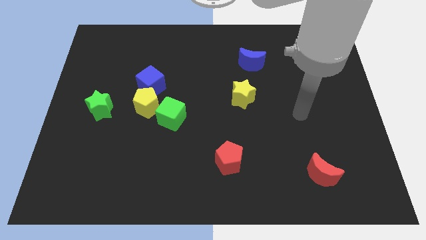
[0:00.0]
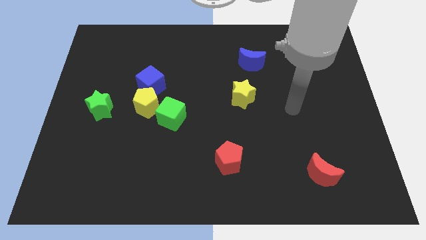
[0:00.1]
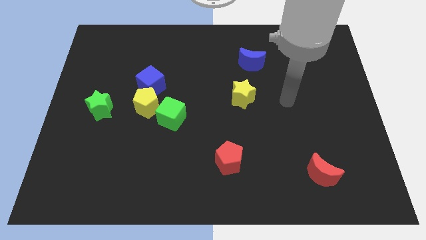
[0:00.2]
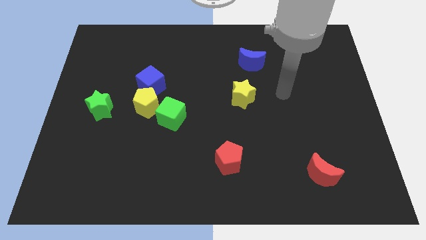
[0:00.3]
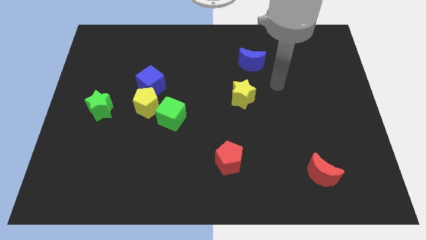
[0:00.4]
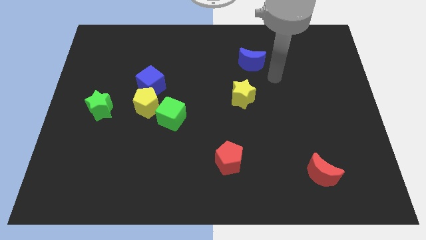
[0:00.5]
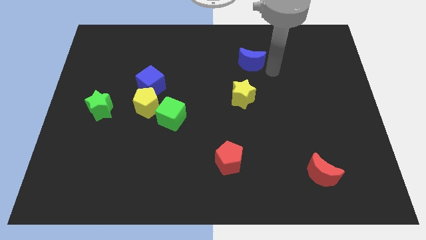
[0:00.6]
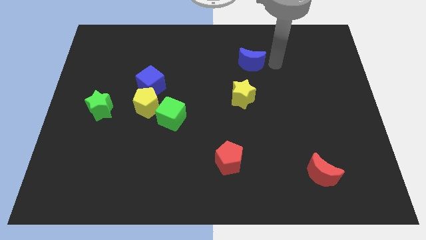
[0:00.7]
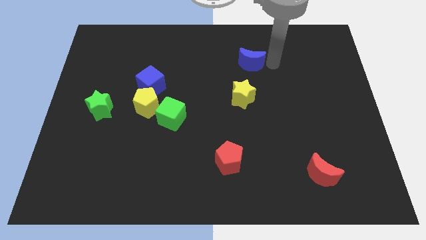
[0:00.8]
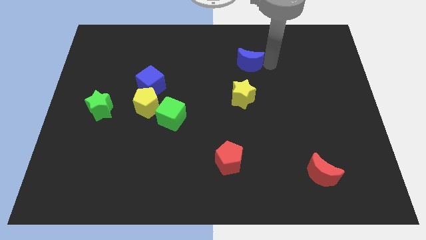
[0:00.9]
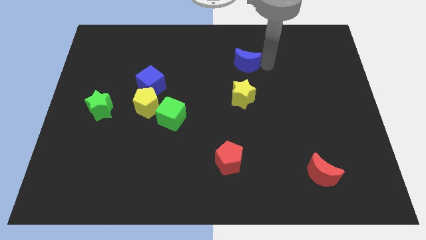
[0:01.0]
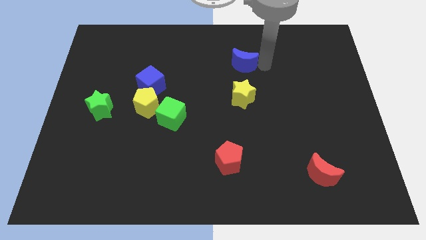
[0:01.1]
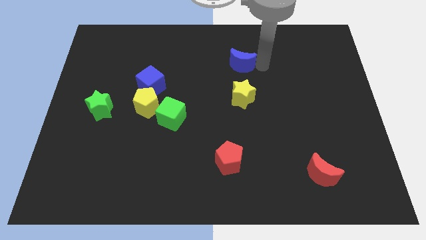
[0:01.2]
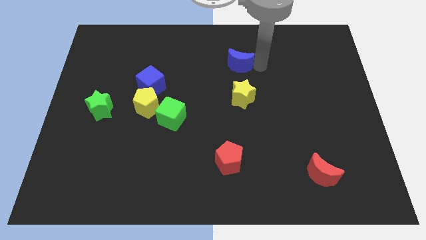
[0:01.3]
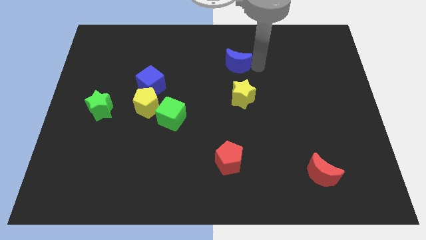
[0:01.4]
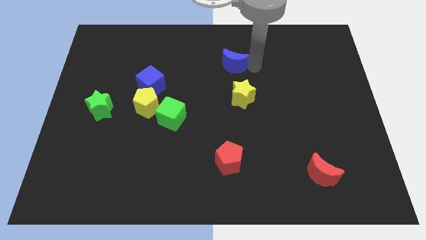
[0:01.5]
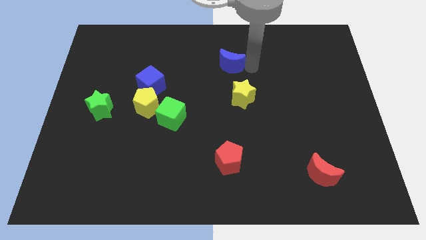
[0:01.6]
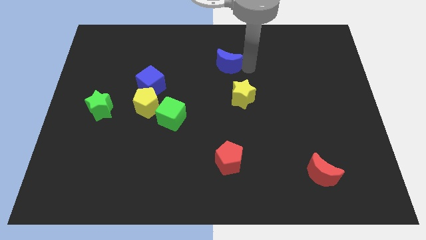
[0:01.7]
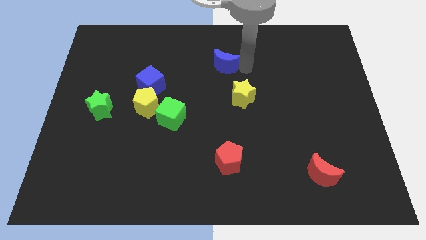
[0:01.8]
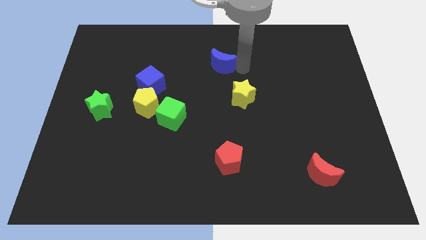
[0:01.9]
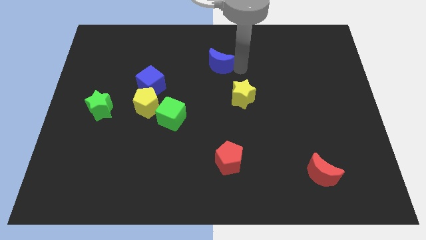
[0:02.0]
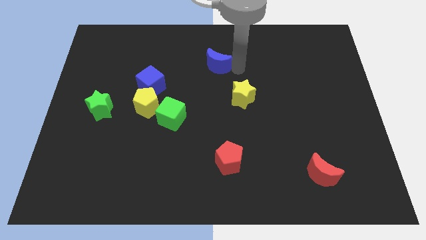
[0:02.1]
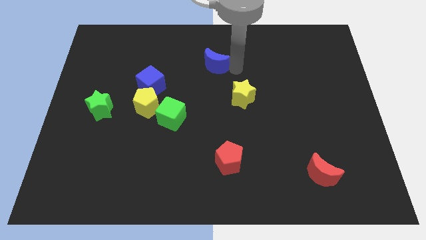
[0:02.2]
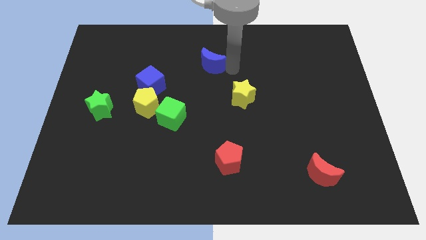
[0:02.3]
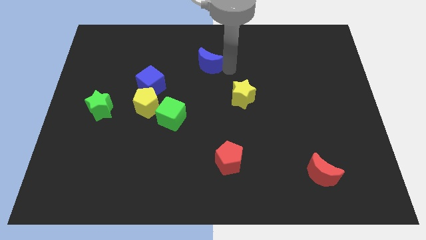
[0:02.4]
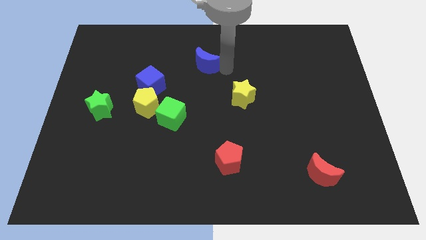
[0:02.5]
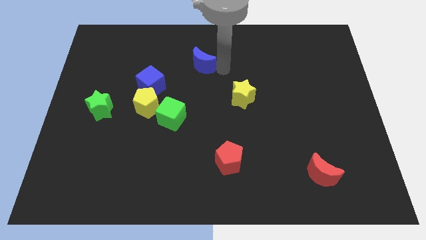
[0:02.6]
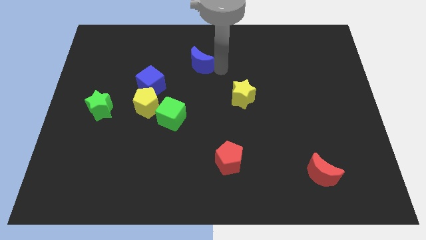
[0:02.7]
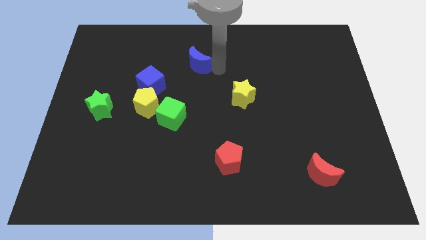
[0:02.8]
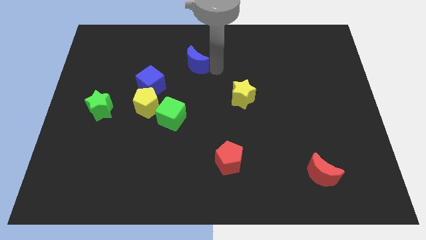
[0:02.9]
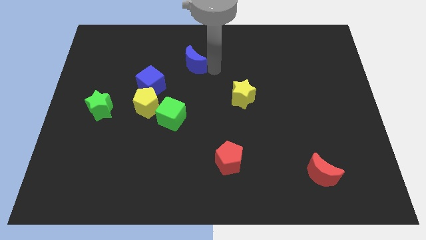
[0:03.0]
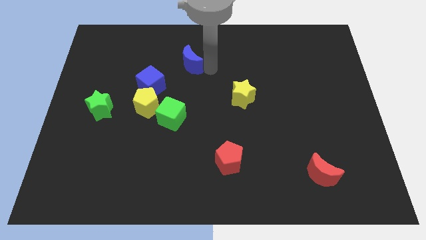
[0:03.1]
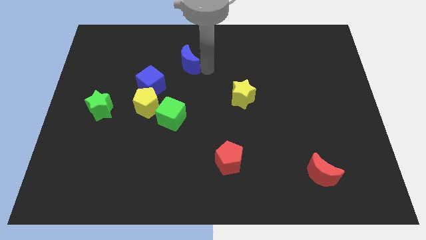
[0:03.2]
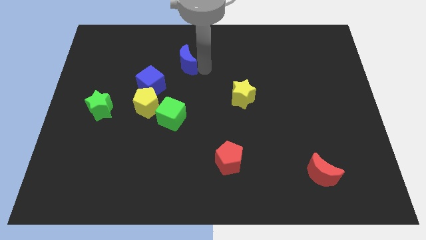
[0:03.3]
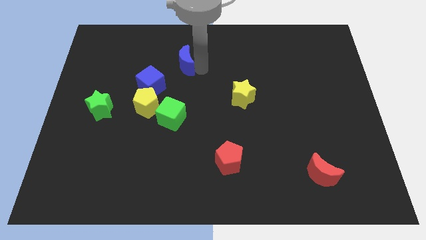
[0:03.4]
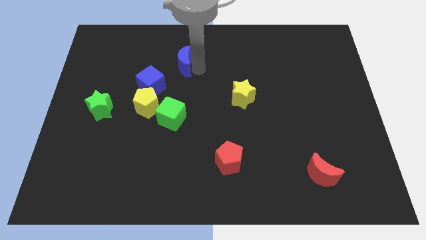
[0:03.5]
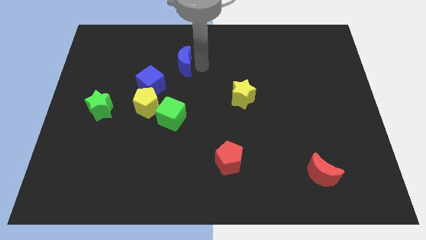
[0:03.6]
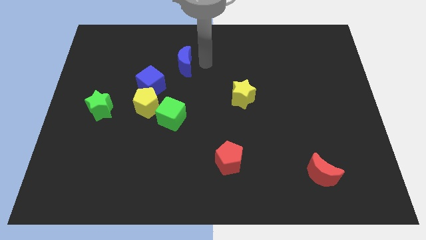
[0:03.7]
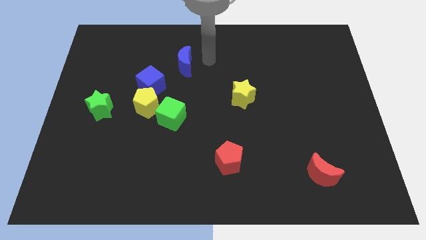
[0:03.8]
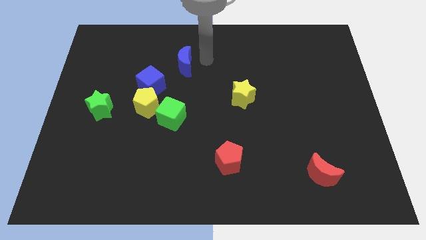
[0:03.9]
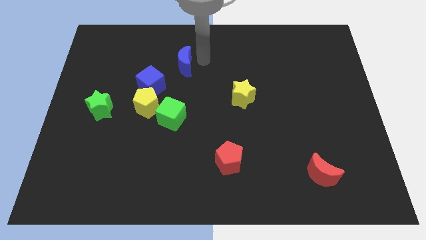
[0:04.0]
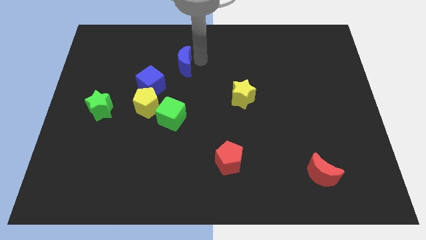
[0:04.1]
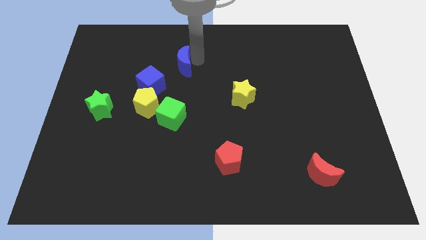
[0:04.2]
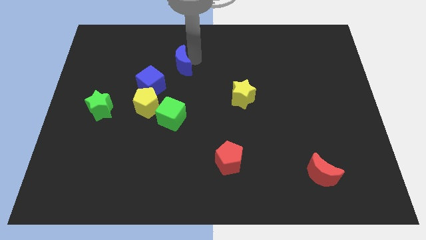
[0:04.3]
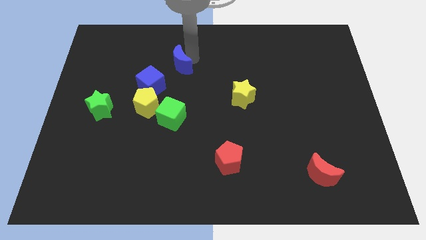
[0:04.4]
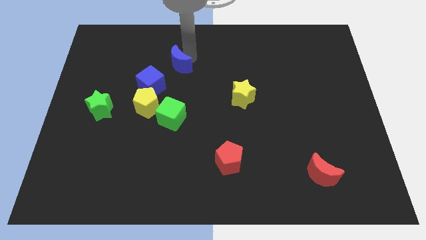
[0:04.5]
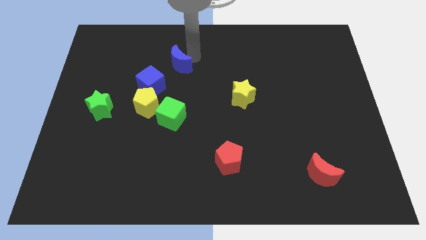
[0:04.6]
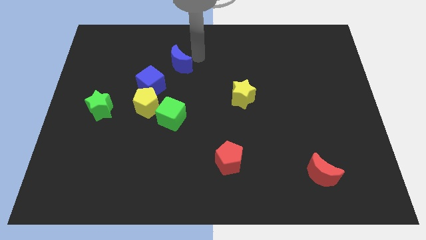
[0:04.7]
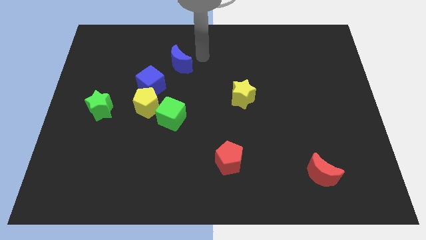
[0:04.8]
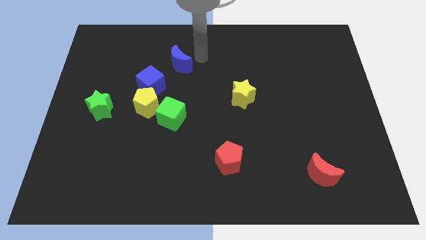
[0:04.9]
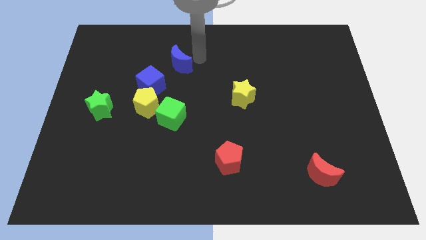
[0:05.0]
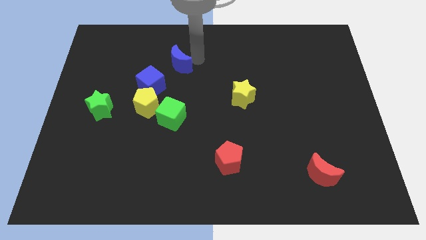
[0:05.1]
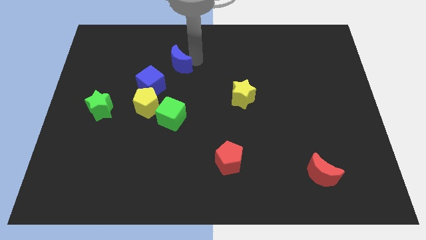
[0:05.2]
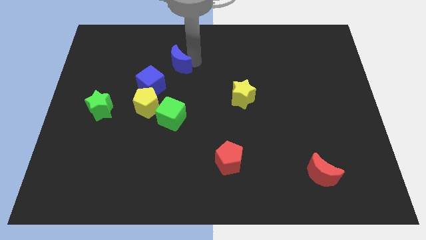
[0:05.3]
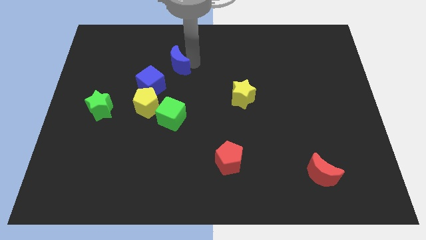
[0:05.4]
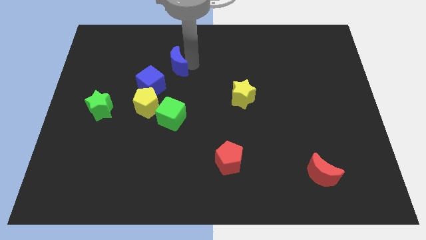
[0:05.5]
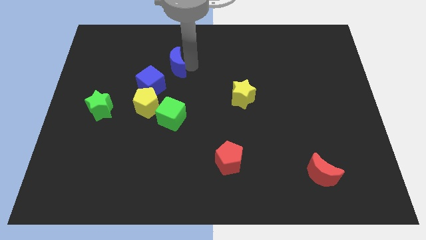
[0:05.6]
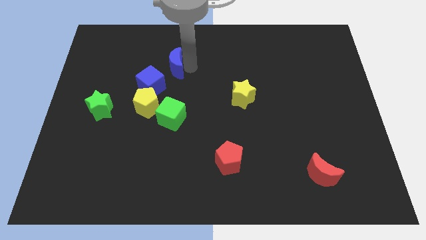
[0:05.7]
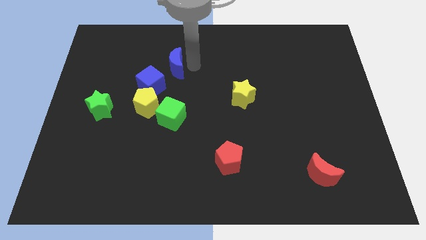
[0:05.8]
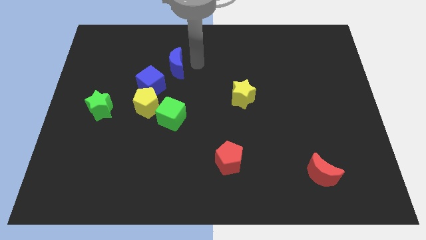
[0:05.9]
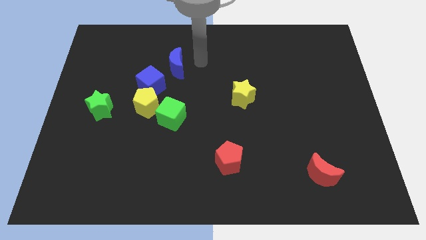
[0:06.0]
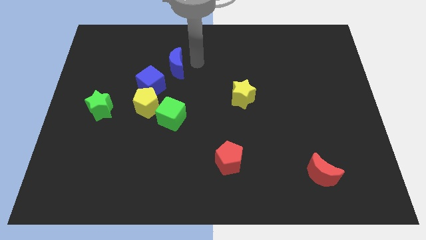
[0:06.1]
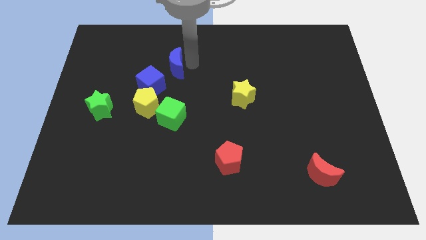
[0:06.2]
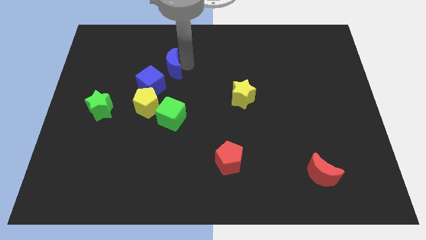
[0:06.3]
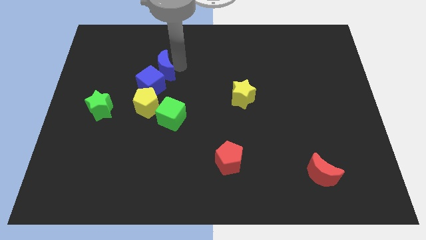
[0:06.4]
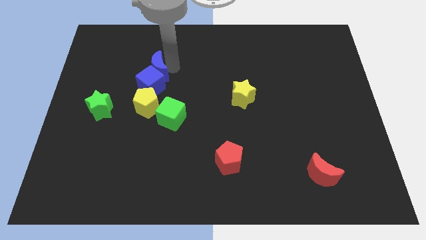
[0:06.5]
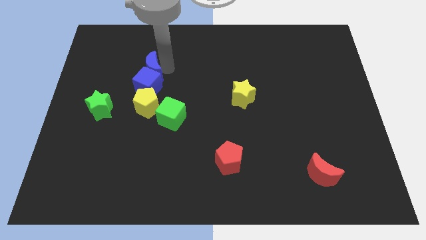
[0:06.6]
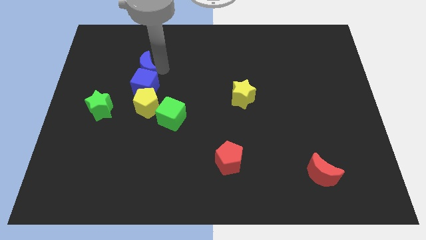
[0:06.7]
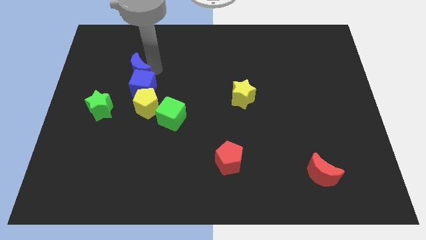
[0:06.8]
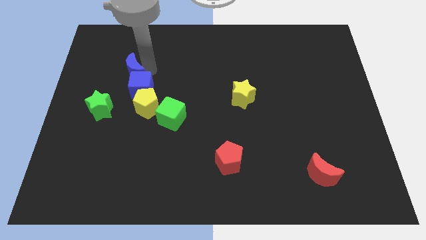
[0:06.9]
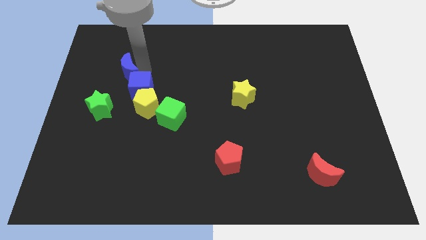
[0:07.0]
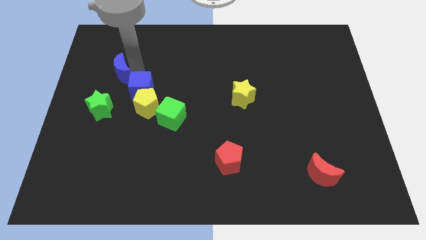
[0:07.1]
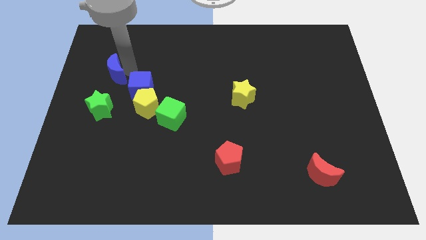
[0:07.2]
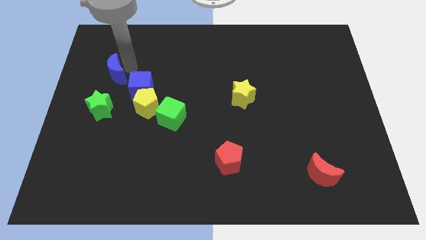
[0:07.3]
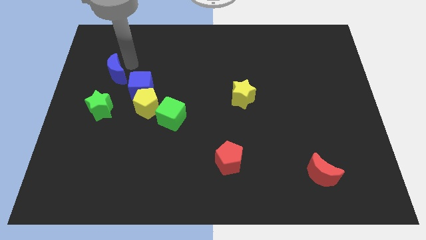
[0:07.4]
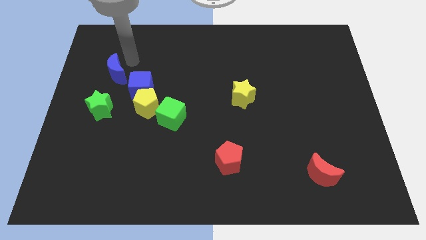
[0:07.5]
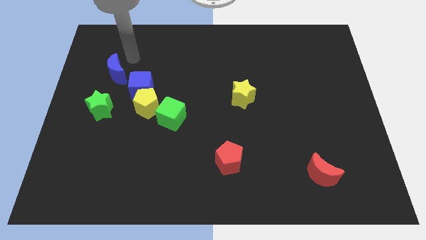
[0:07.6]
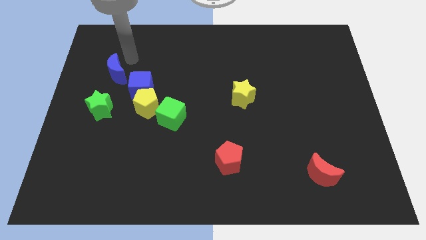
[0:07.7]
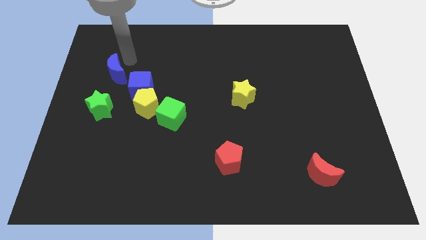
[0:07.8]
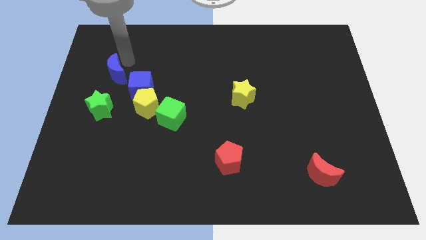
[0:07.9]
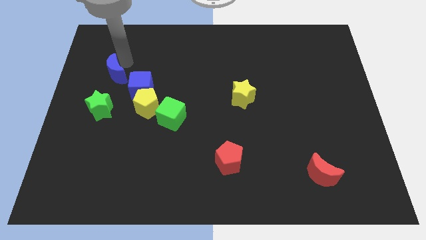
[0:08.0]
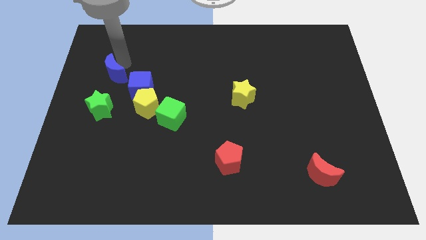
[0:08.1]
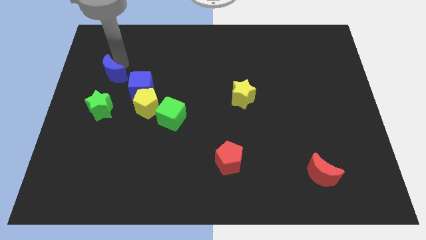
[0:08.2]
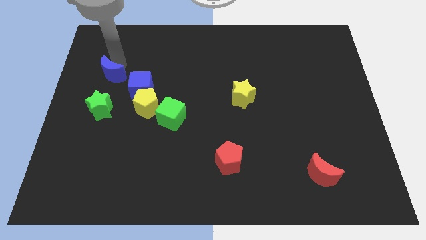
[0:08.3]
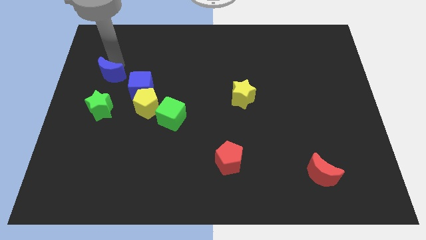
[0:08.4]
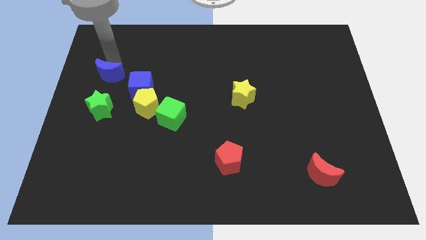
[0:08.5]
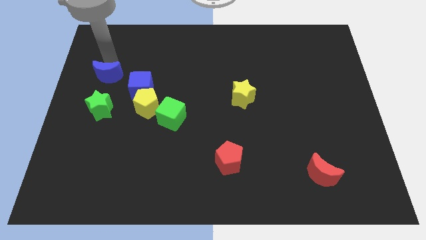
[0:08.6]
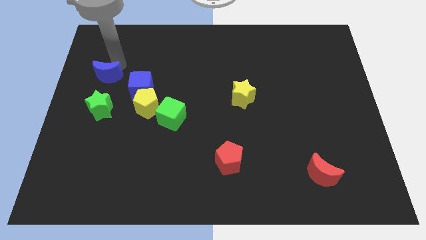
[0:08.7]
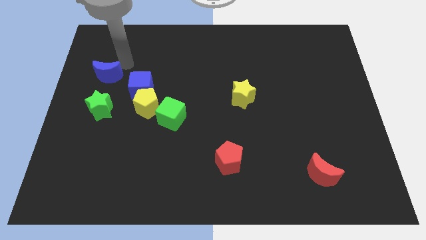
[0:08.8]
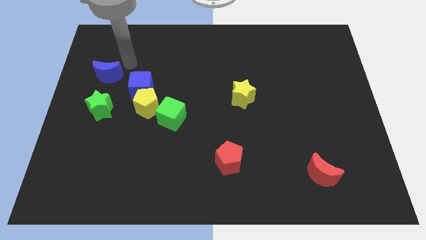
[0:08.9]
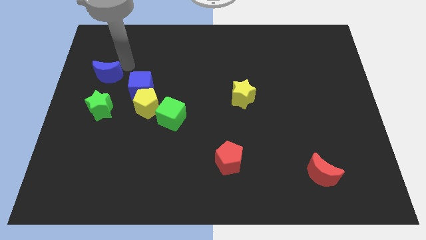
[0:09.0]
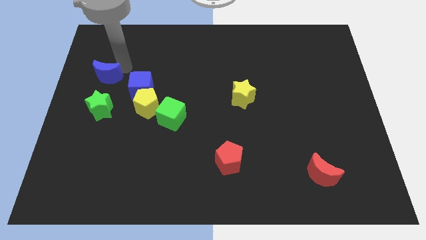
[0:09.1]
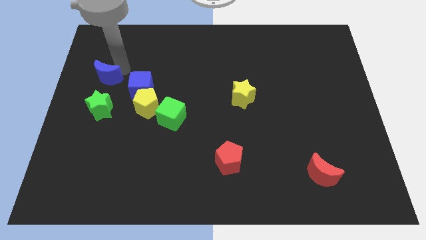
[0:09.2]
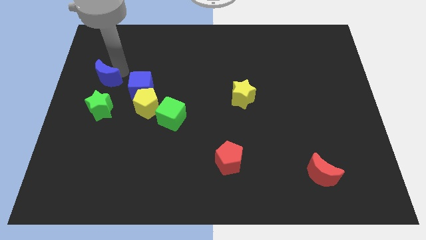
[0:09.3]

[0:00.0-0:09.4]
move the blue moon to the left side of the board
